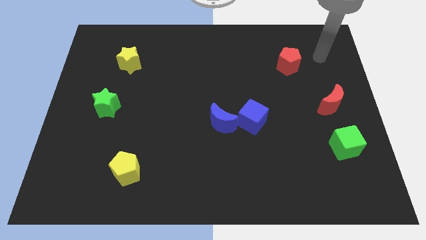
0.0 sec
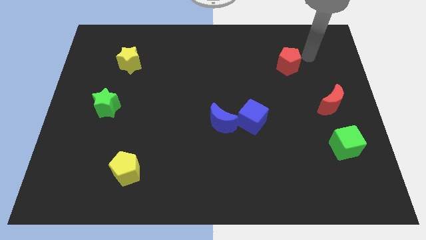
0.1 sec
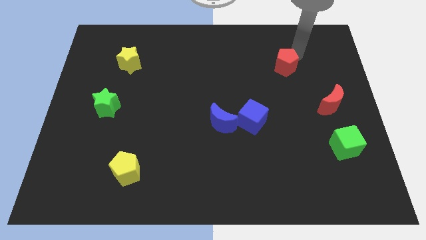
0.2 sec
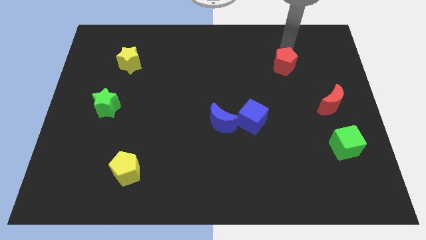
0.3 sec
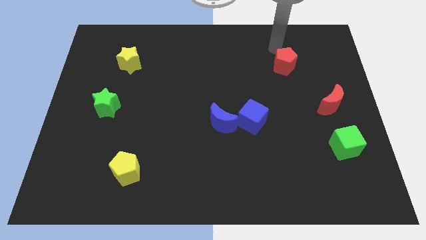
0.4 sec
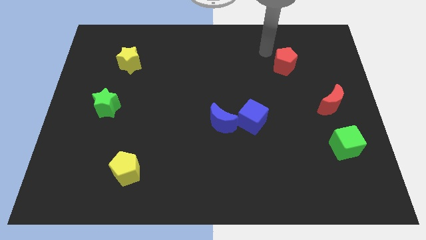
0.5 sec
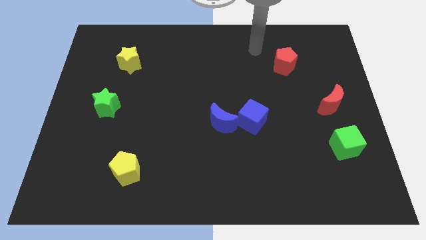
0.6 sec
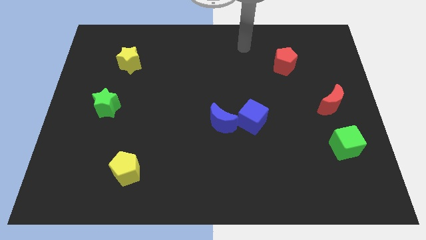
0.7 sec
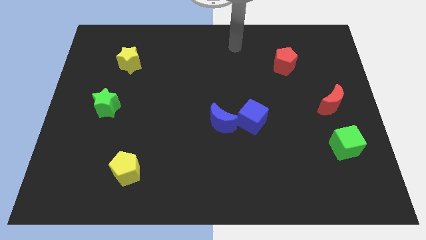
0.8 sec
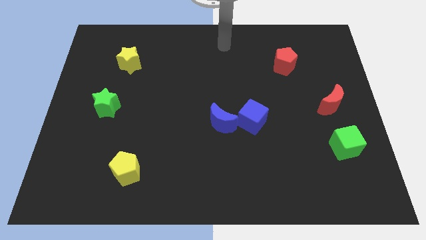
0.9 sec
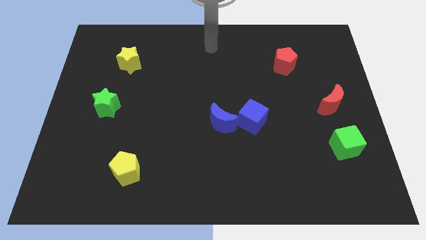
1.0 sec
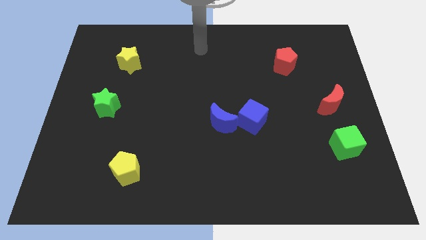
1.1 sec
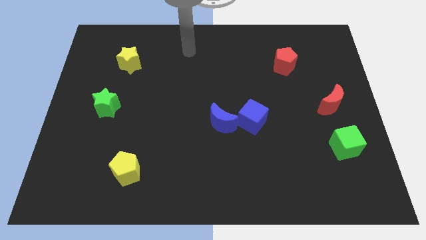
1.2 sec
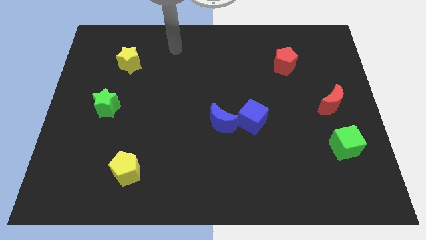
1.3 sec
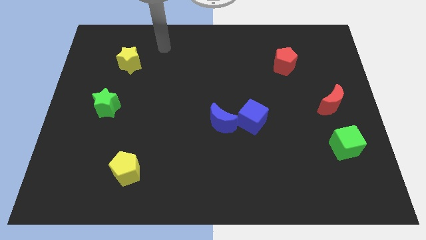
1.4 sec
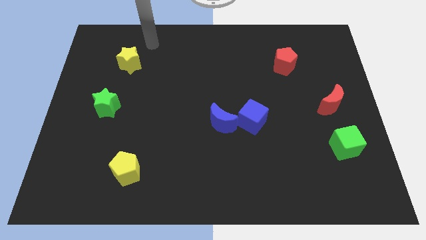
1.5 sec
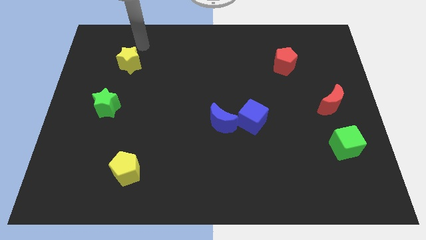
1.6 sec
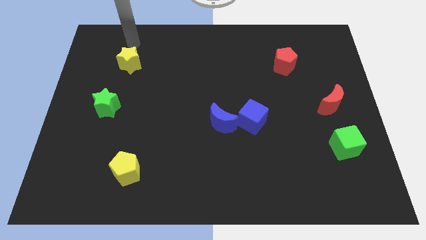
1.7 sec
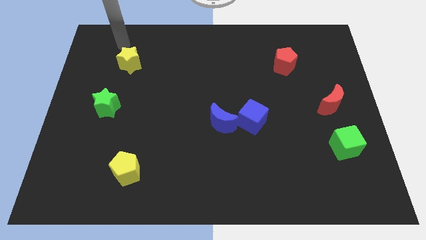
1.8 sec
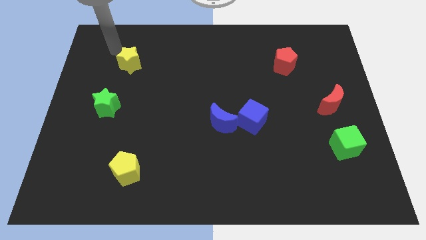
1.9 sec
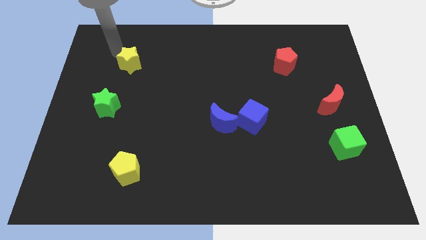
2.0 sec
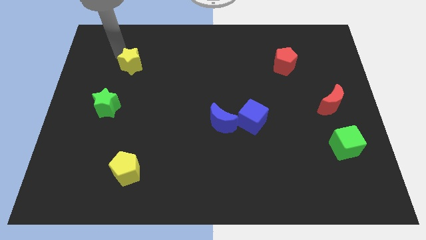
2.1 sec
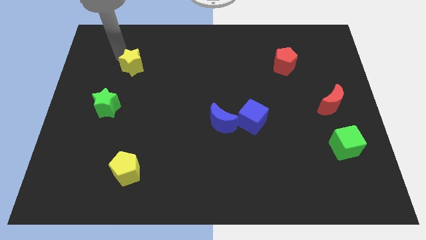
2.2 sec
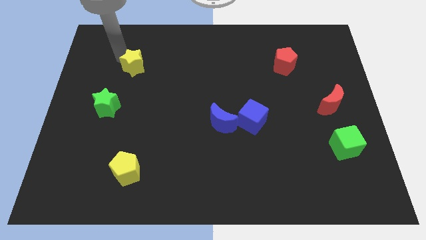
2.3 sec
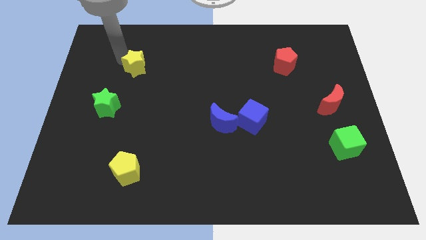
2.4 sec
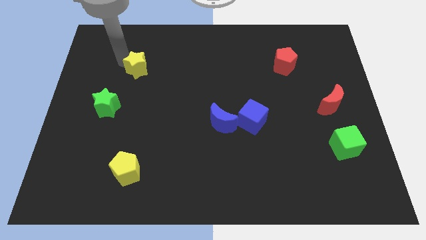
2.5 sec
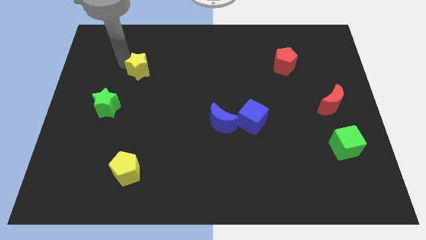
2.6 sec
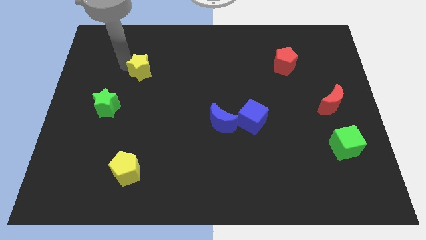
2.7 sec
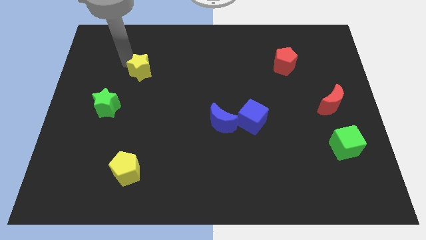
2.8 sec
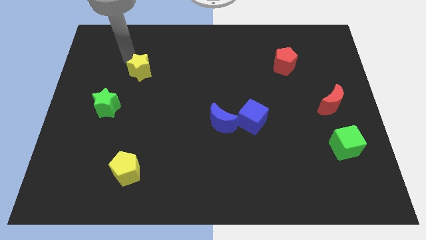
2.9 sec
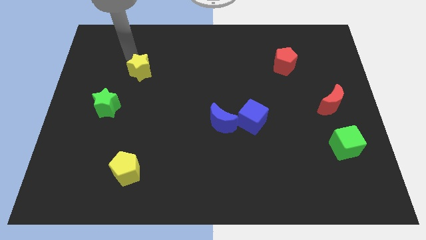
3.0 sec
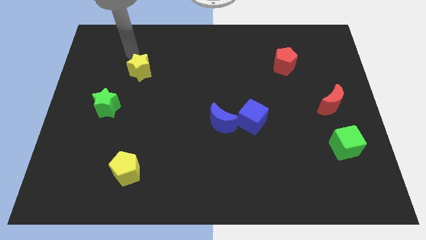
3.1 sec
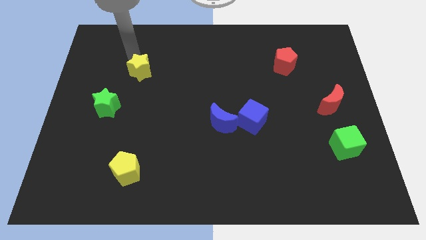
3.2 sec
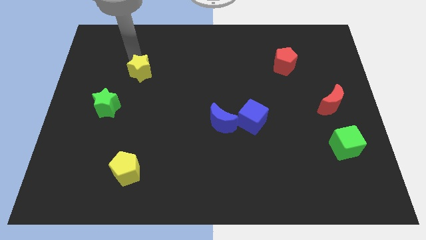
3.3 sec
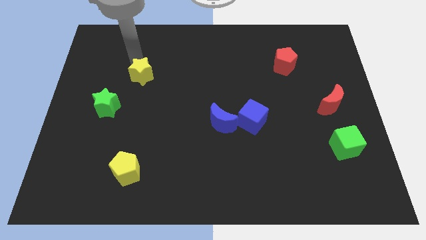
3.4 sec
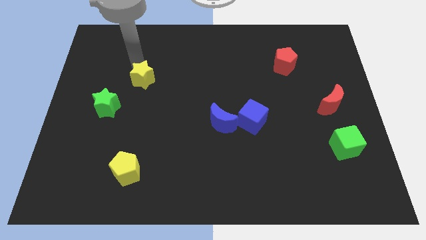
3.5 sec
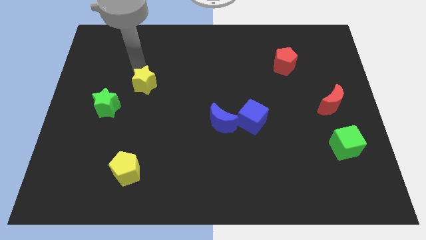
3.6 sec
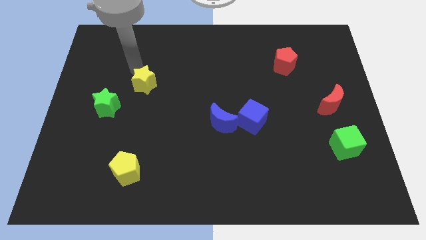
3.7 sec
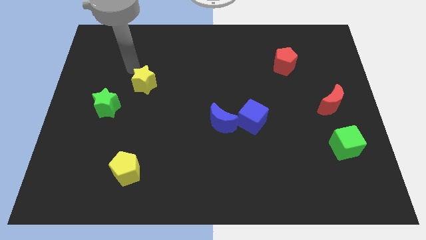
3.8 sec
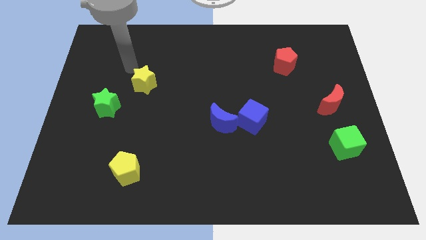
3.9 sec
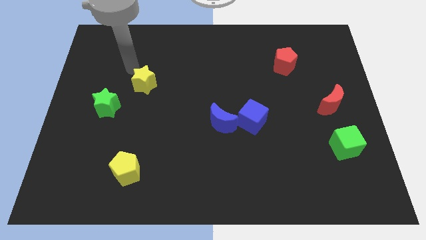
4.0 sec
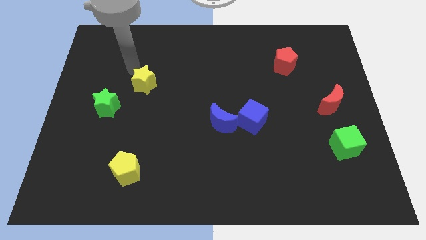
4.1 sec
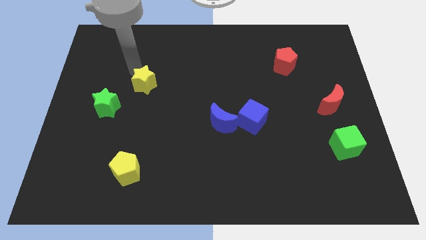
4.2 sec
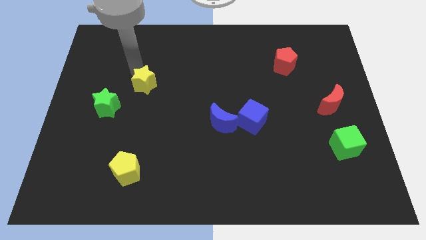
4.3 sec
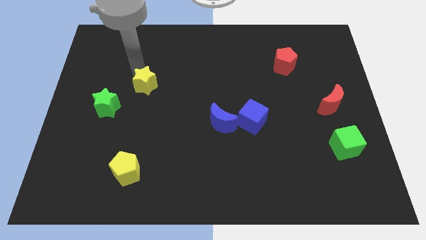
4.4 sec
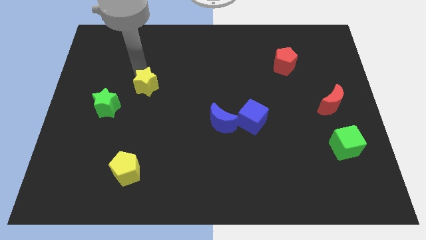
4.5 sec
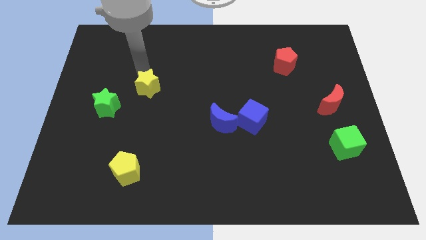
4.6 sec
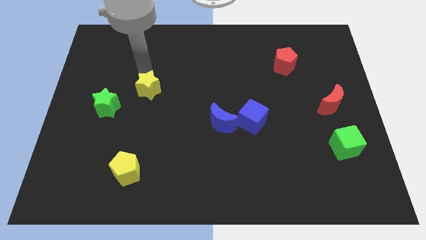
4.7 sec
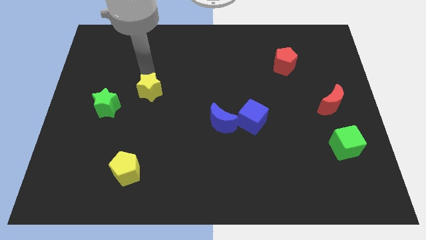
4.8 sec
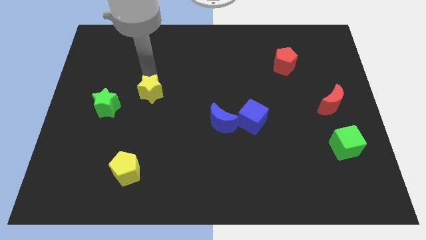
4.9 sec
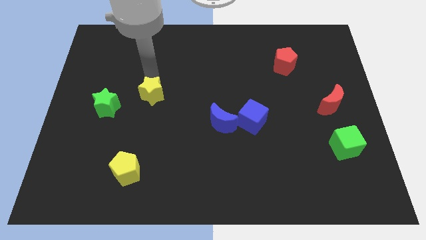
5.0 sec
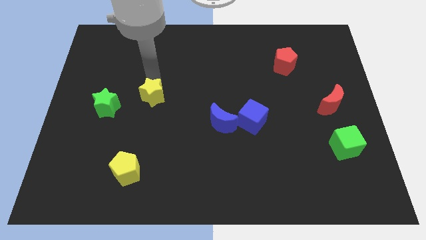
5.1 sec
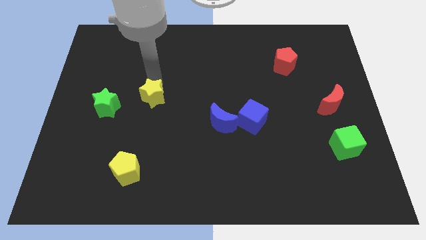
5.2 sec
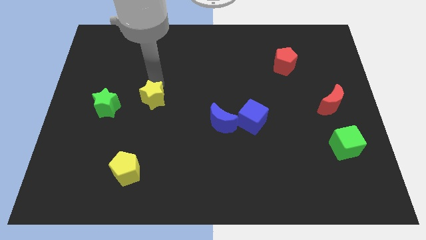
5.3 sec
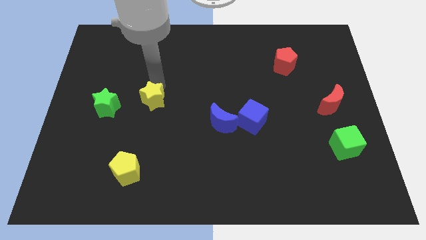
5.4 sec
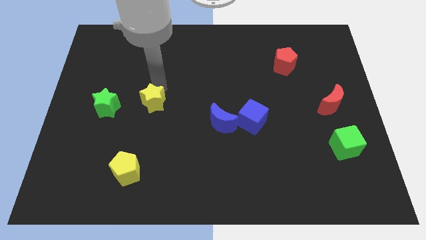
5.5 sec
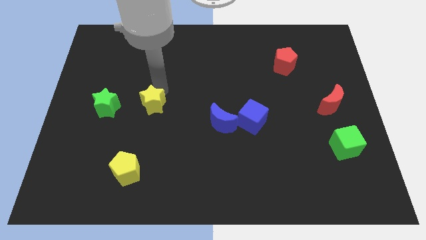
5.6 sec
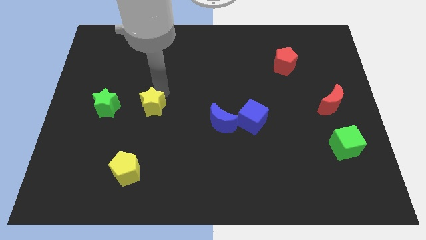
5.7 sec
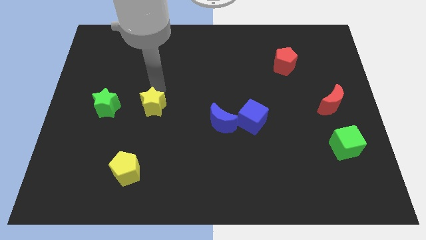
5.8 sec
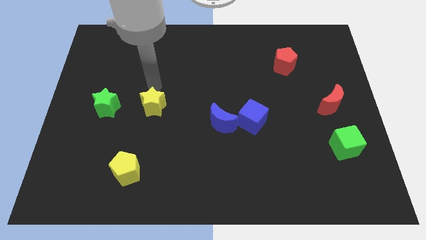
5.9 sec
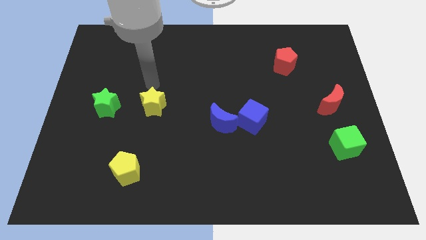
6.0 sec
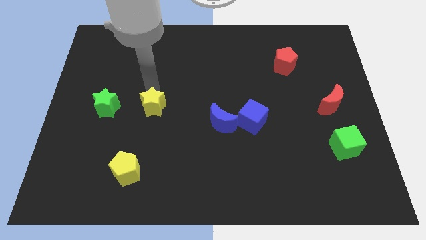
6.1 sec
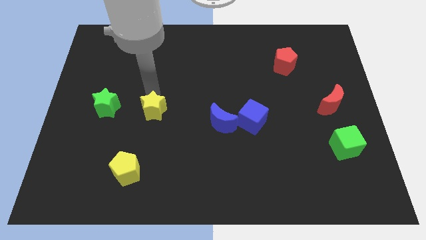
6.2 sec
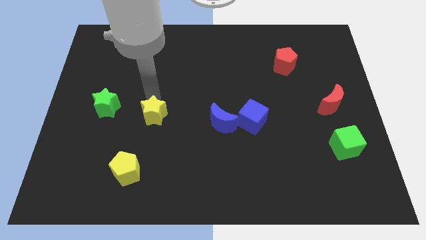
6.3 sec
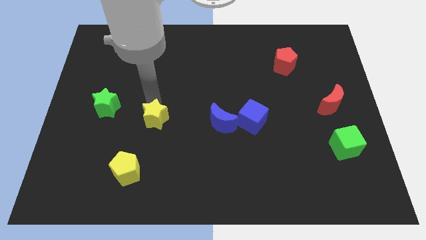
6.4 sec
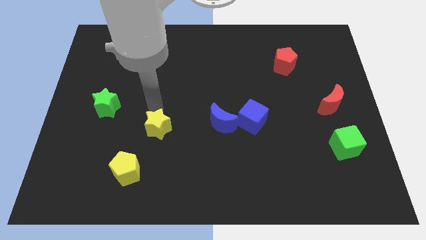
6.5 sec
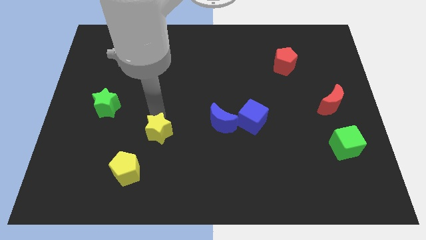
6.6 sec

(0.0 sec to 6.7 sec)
push the yellow star diagonally up and to the right of the yellow pentagon

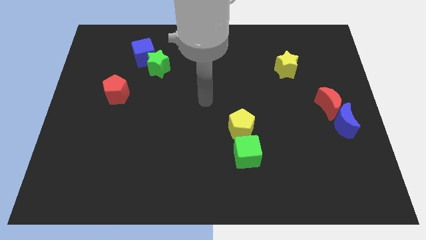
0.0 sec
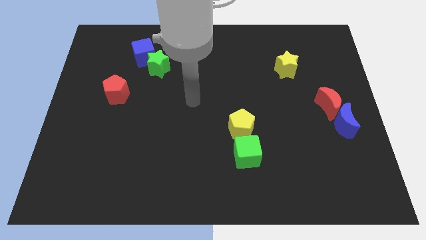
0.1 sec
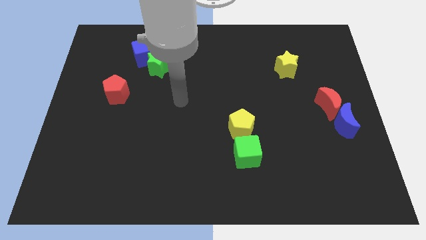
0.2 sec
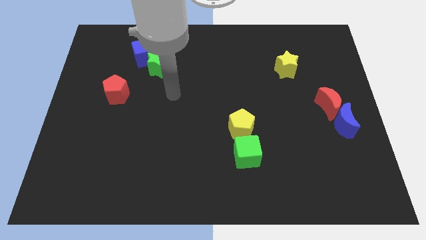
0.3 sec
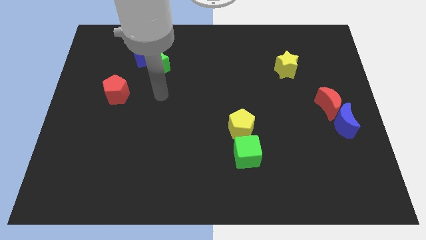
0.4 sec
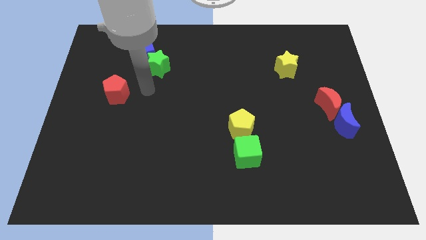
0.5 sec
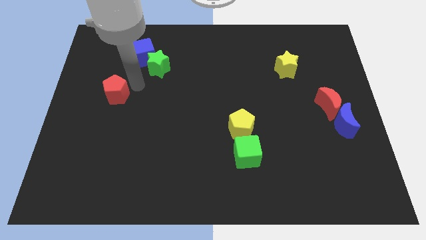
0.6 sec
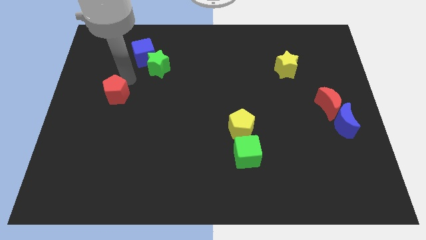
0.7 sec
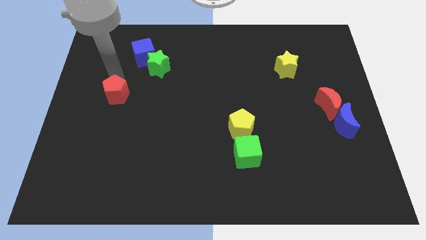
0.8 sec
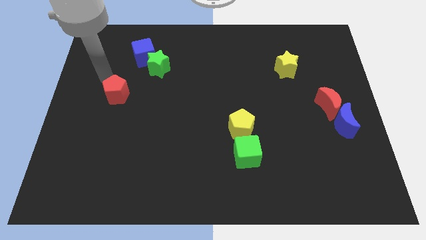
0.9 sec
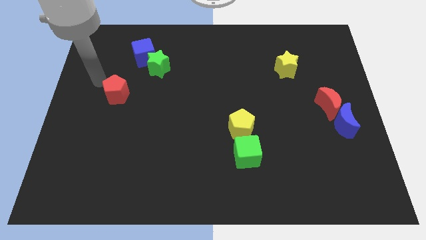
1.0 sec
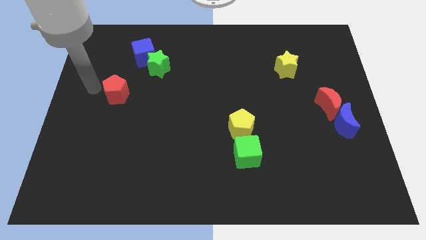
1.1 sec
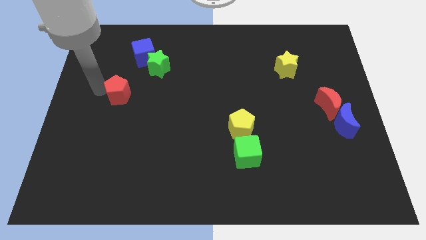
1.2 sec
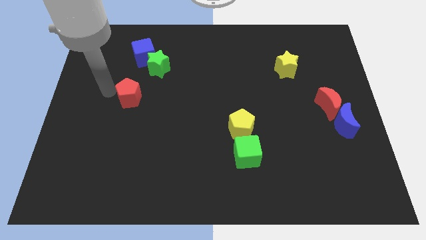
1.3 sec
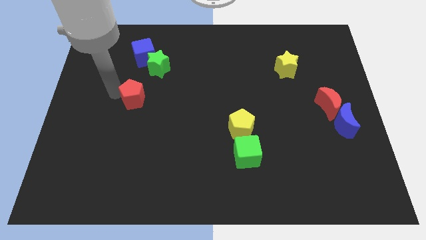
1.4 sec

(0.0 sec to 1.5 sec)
slide the red pentagon to the bottom of the green star

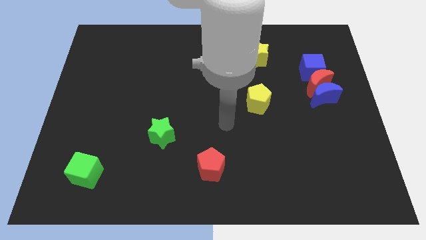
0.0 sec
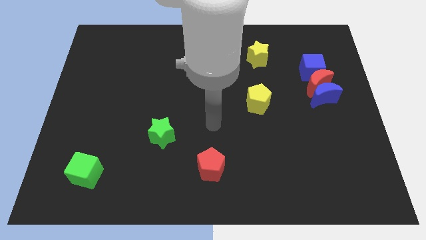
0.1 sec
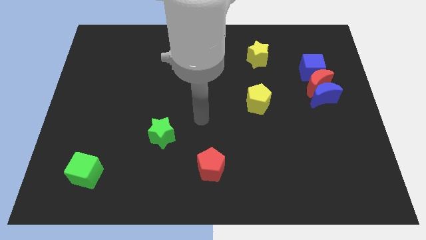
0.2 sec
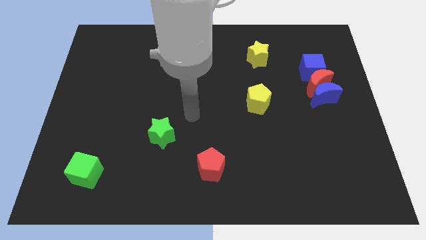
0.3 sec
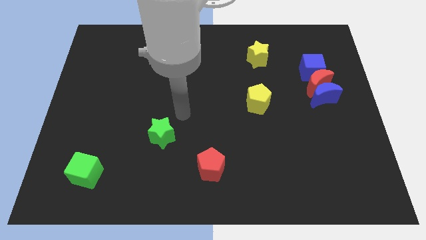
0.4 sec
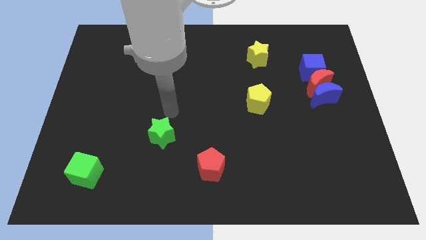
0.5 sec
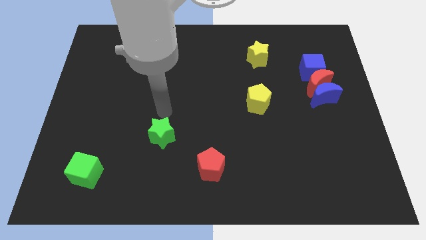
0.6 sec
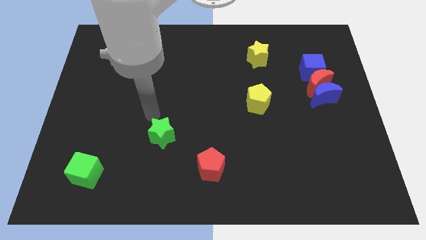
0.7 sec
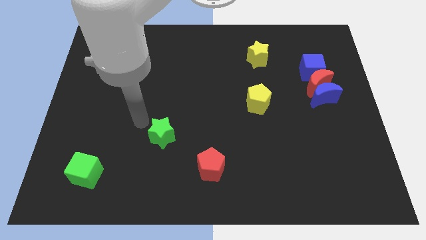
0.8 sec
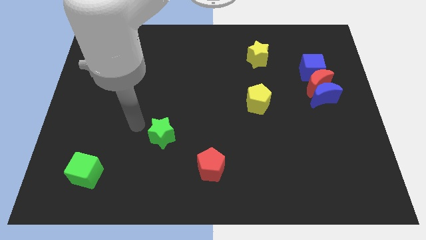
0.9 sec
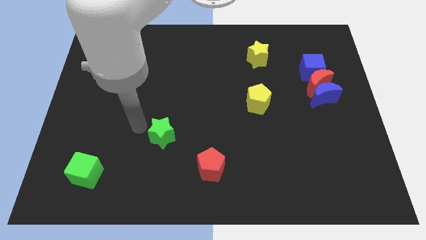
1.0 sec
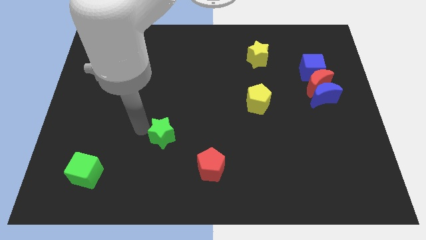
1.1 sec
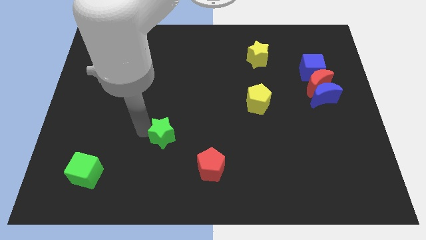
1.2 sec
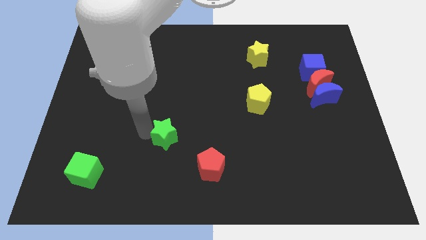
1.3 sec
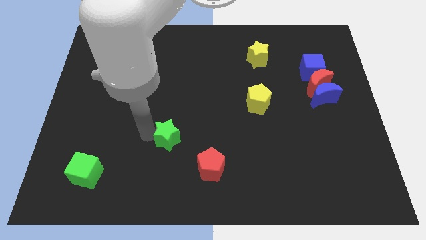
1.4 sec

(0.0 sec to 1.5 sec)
push the green star to the top left of the red pentagon
